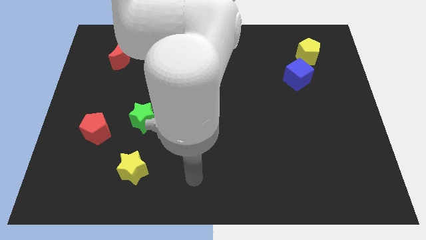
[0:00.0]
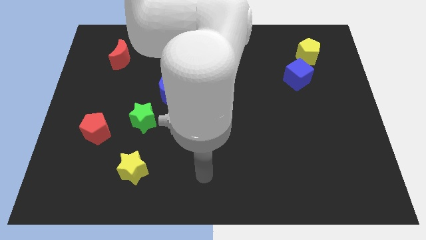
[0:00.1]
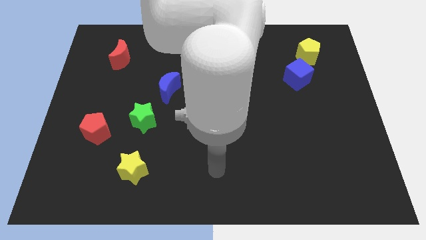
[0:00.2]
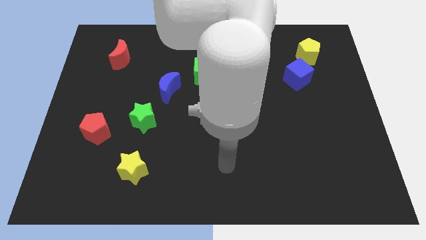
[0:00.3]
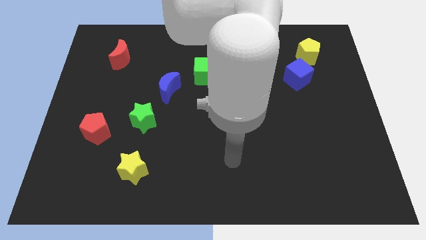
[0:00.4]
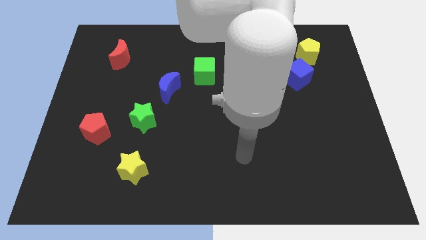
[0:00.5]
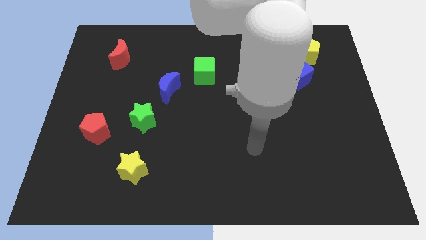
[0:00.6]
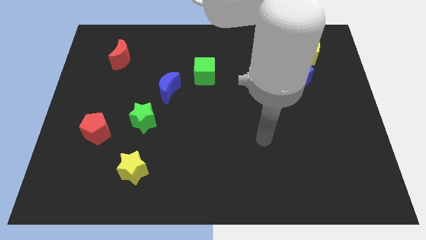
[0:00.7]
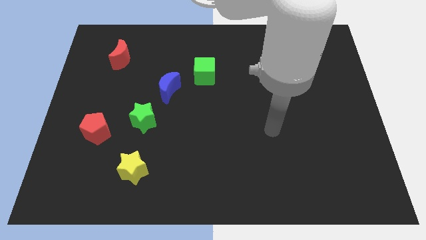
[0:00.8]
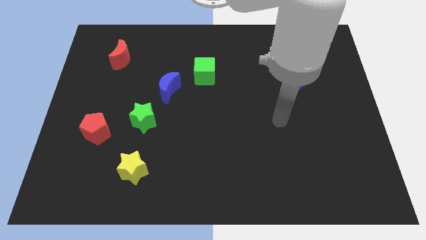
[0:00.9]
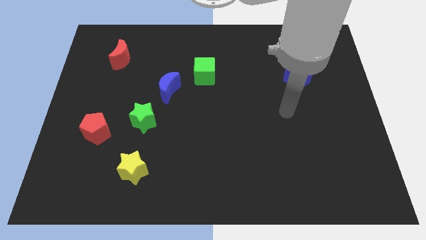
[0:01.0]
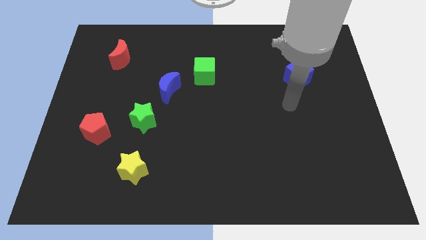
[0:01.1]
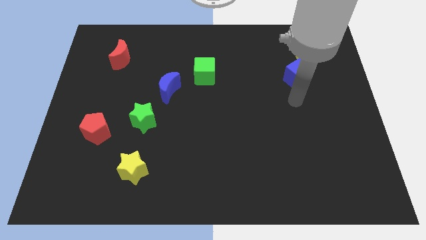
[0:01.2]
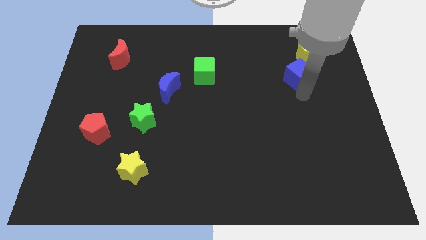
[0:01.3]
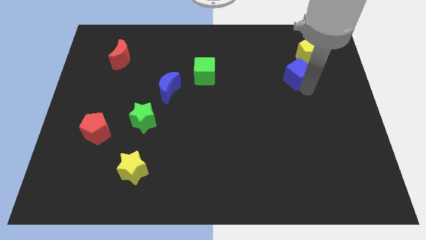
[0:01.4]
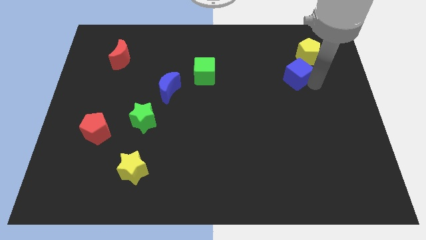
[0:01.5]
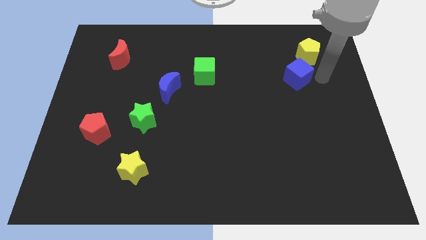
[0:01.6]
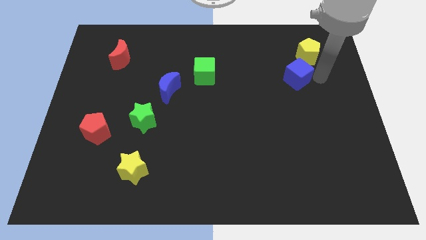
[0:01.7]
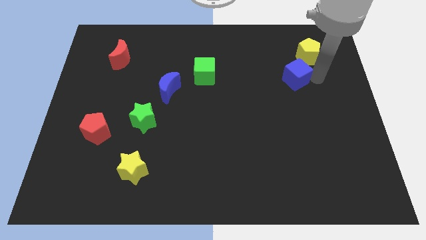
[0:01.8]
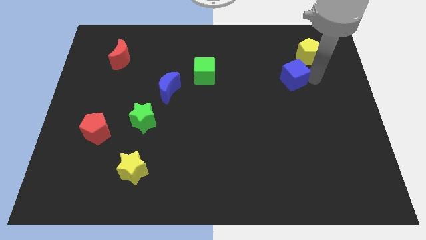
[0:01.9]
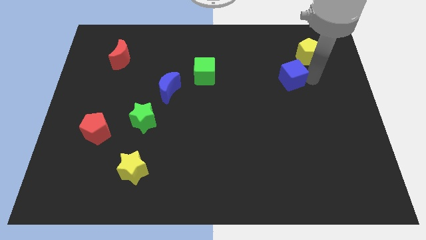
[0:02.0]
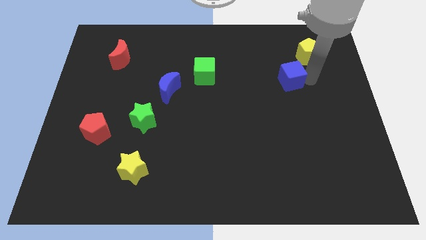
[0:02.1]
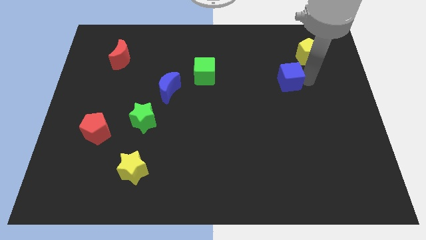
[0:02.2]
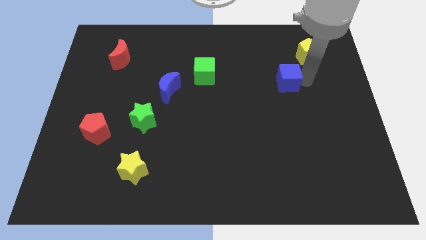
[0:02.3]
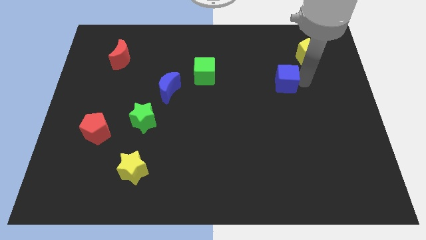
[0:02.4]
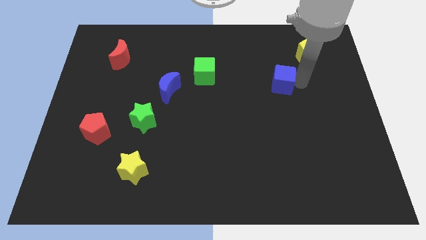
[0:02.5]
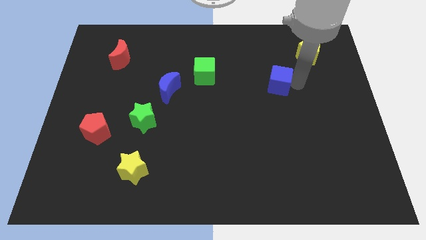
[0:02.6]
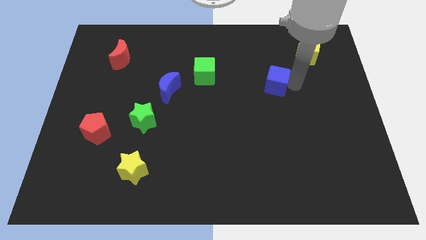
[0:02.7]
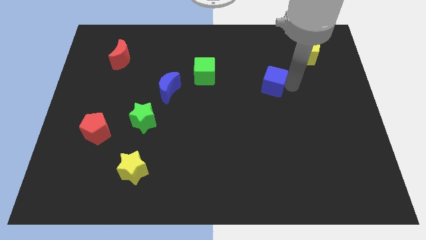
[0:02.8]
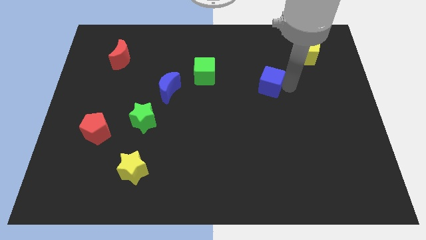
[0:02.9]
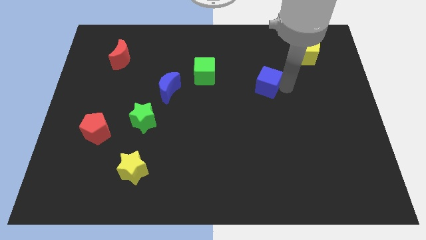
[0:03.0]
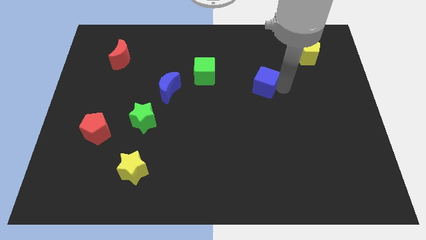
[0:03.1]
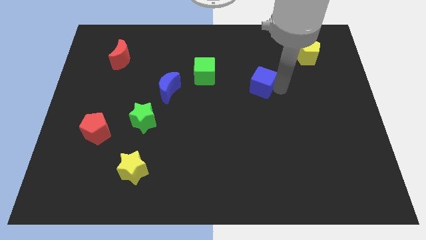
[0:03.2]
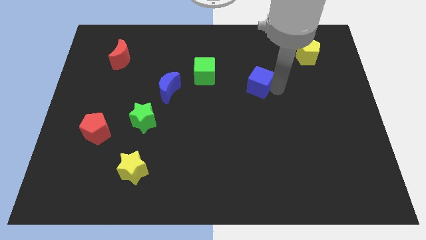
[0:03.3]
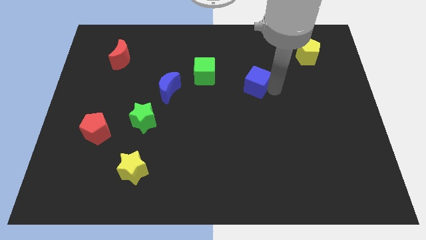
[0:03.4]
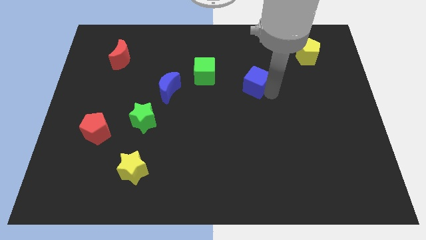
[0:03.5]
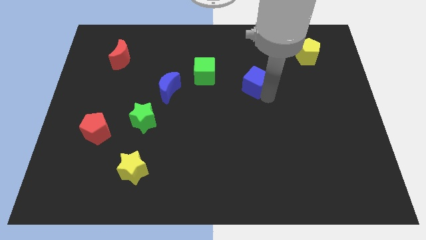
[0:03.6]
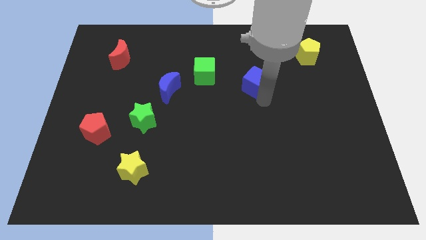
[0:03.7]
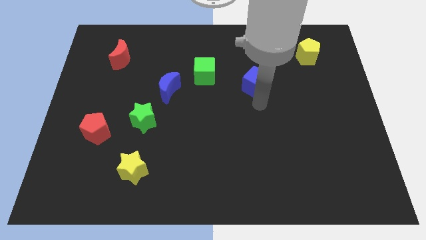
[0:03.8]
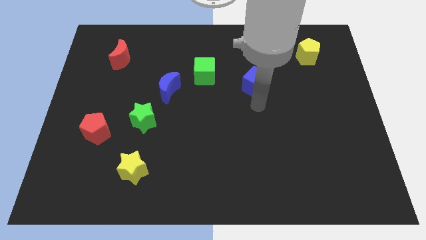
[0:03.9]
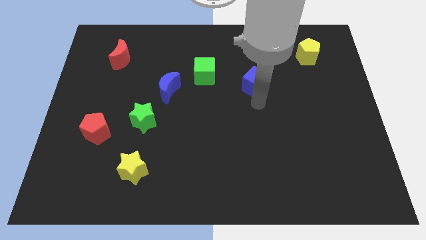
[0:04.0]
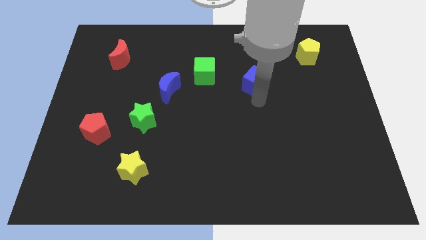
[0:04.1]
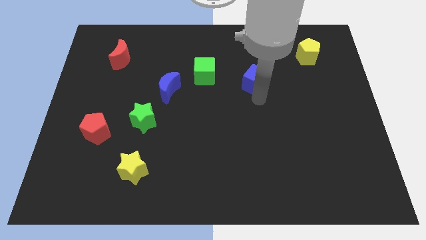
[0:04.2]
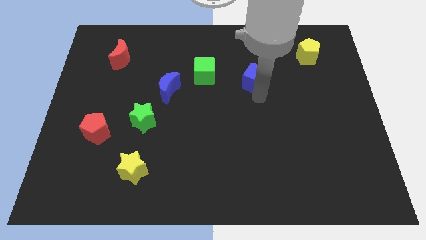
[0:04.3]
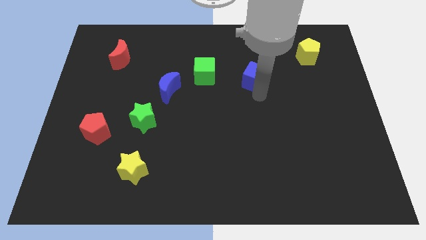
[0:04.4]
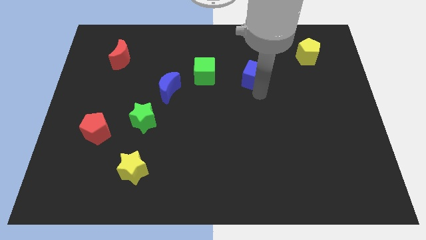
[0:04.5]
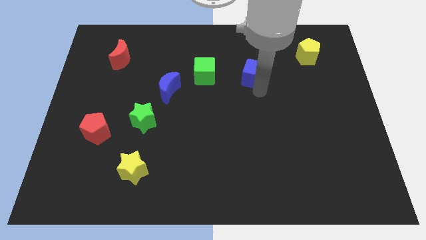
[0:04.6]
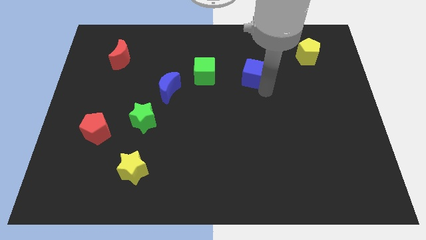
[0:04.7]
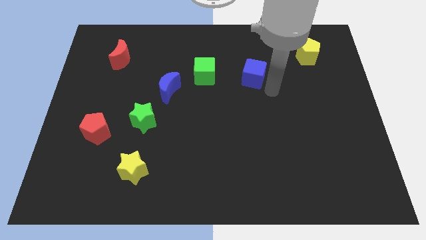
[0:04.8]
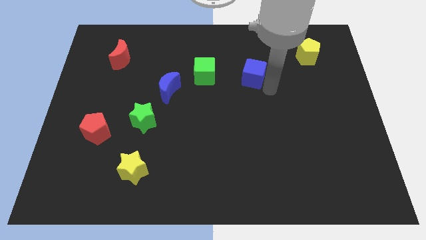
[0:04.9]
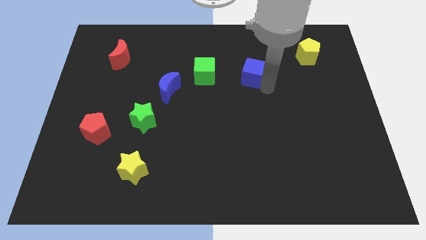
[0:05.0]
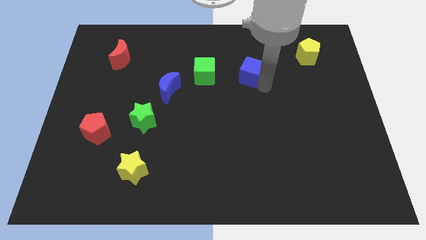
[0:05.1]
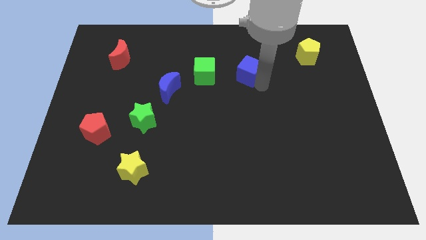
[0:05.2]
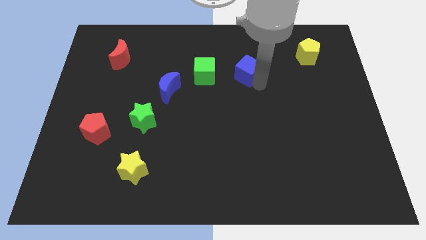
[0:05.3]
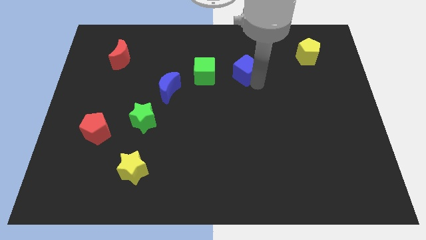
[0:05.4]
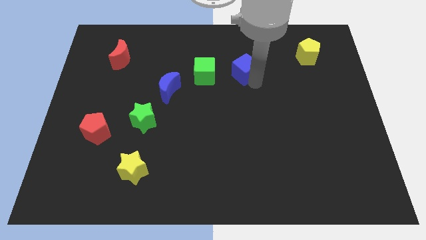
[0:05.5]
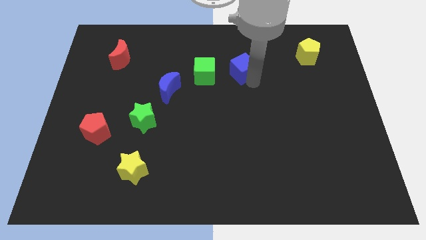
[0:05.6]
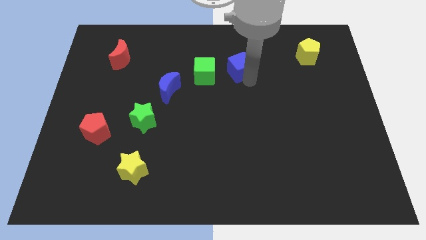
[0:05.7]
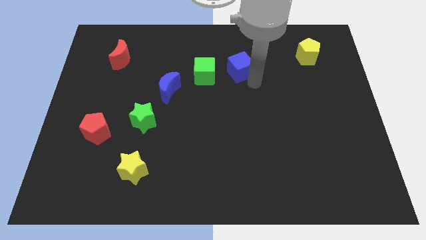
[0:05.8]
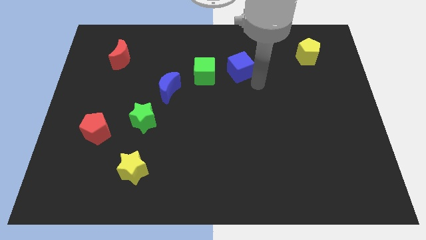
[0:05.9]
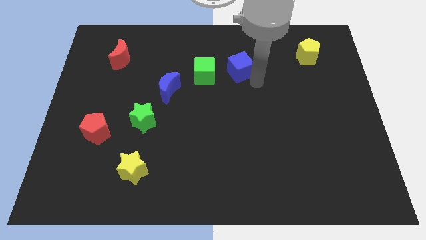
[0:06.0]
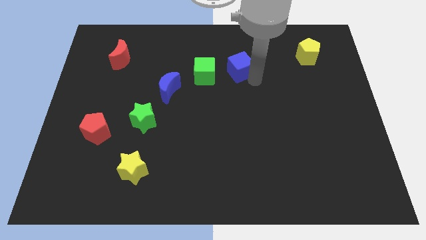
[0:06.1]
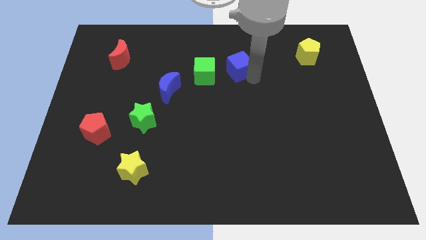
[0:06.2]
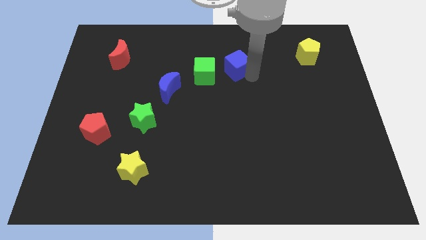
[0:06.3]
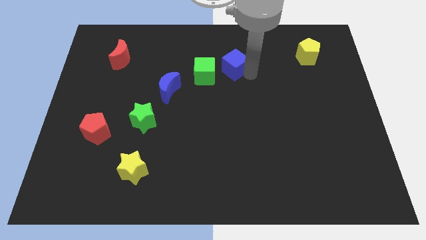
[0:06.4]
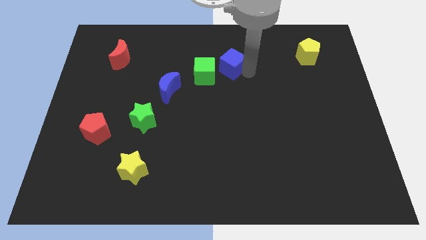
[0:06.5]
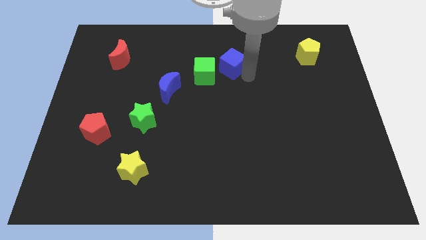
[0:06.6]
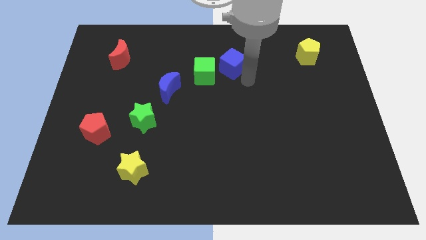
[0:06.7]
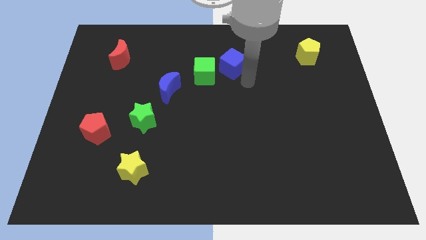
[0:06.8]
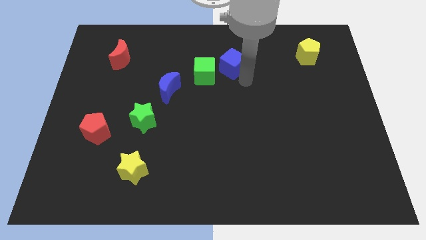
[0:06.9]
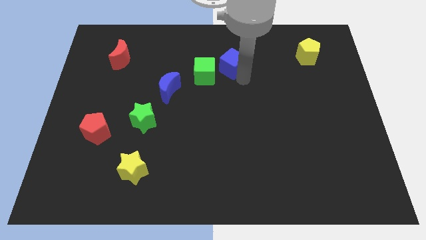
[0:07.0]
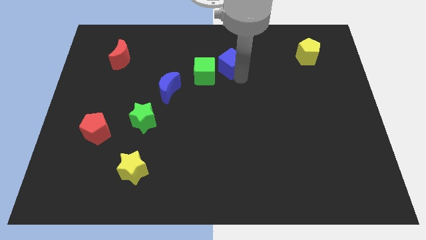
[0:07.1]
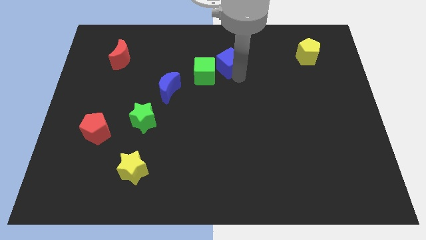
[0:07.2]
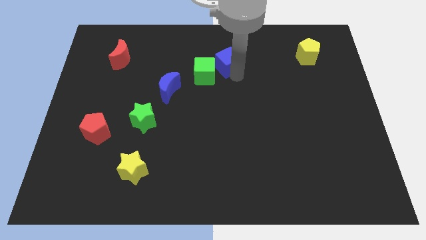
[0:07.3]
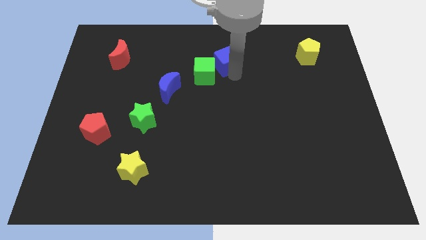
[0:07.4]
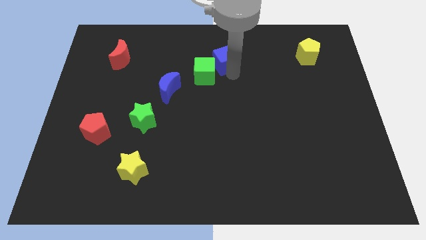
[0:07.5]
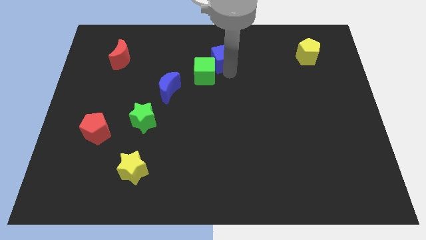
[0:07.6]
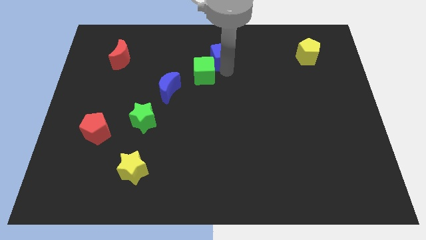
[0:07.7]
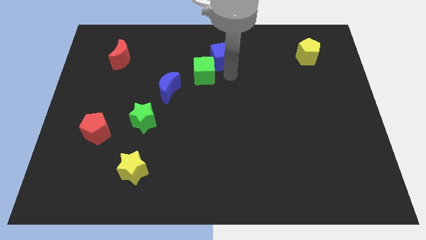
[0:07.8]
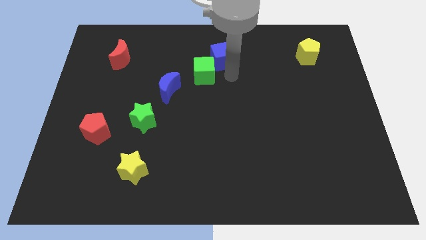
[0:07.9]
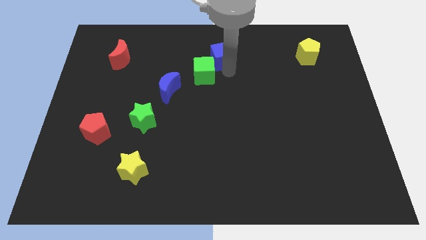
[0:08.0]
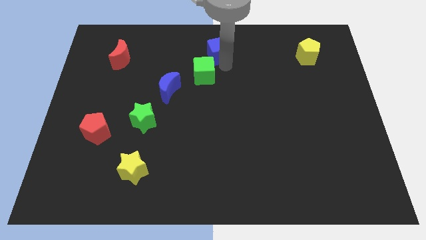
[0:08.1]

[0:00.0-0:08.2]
put the blue cube to the towards your base
